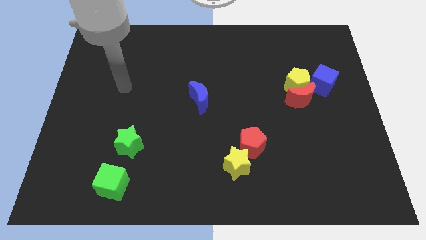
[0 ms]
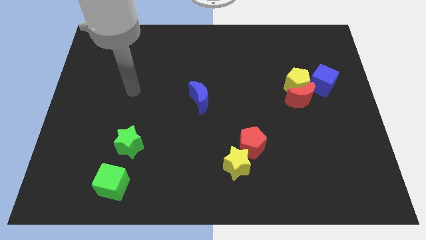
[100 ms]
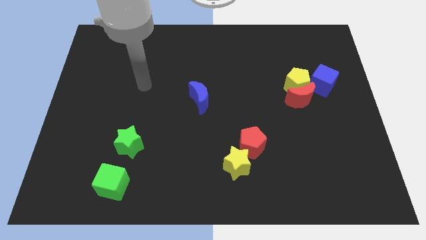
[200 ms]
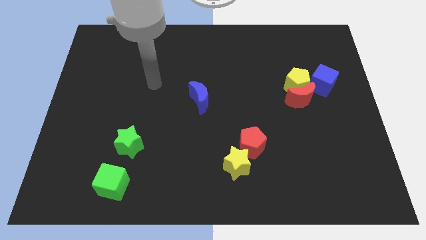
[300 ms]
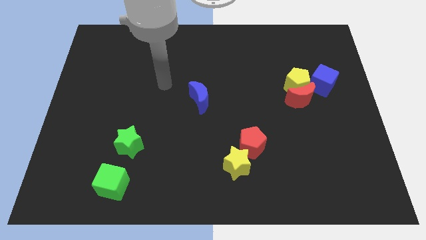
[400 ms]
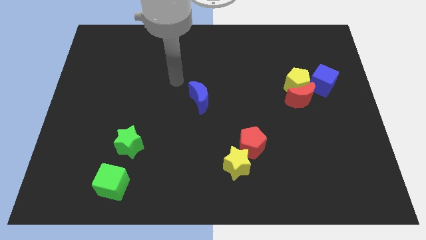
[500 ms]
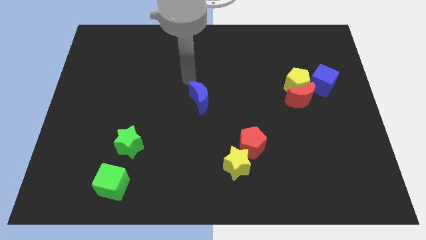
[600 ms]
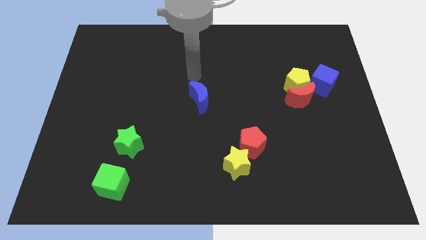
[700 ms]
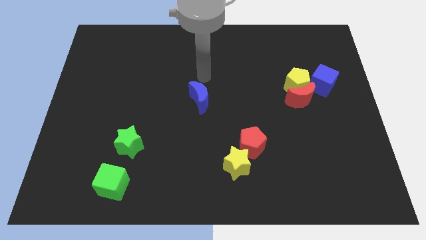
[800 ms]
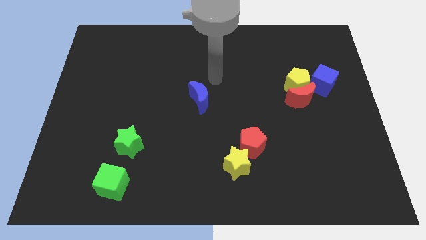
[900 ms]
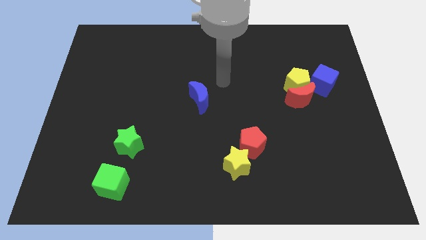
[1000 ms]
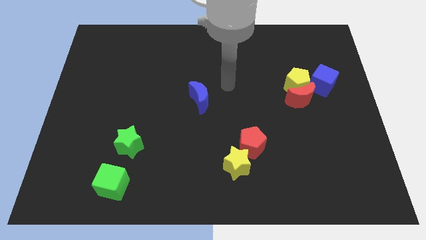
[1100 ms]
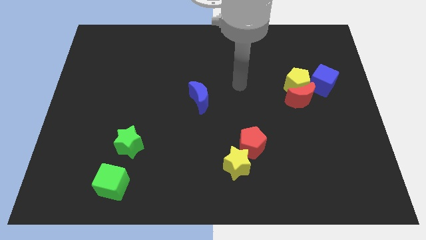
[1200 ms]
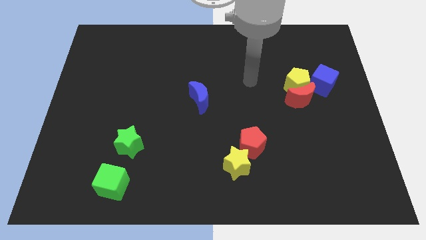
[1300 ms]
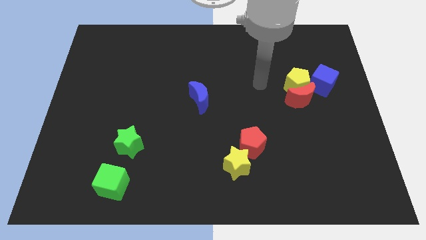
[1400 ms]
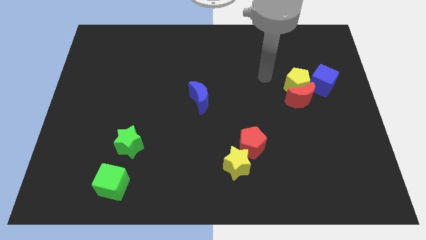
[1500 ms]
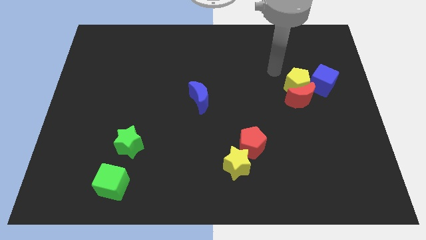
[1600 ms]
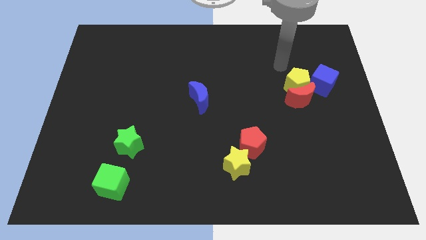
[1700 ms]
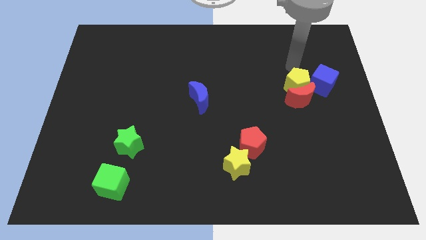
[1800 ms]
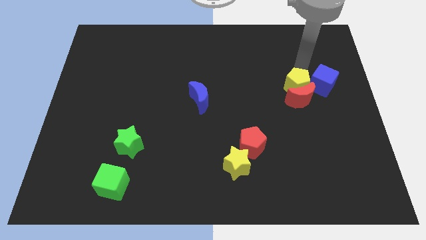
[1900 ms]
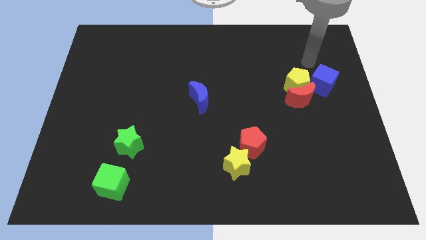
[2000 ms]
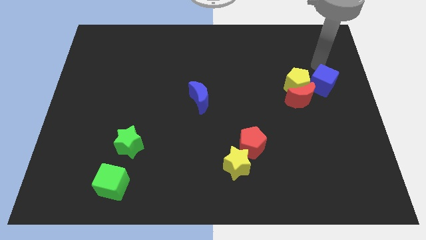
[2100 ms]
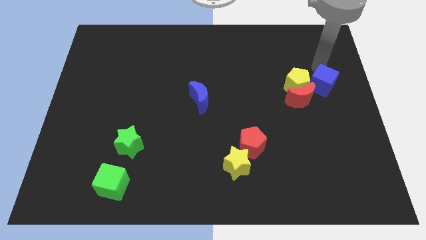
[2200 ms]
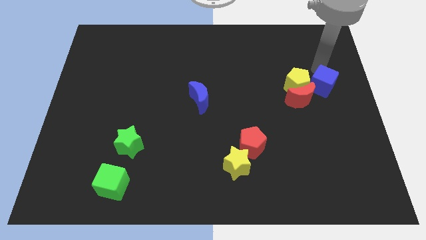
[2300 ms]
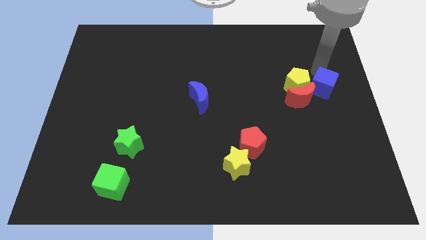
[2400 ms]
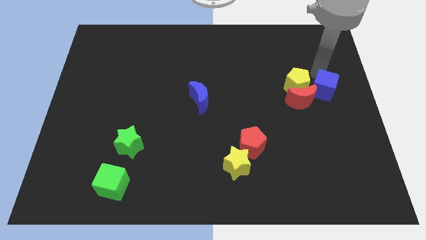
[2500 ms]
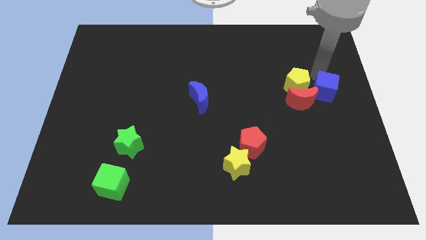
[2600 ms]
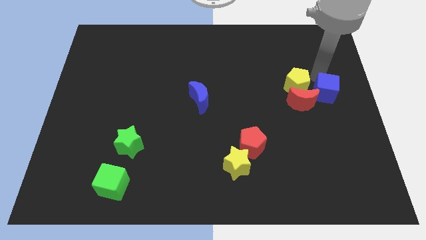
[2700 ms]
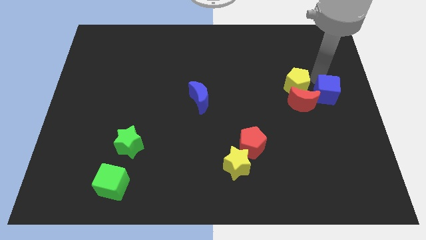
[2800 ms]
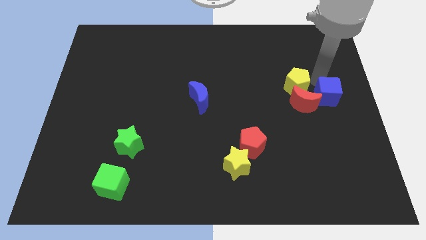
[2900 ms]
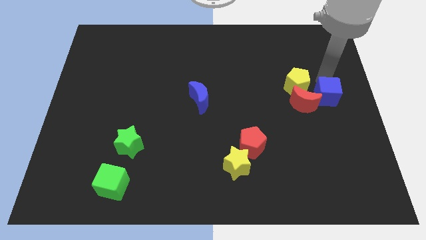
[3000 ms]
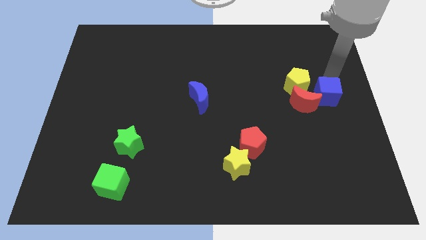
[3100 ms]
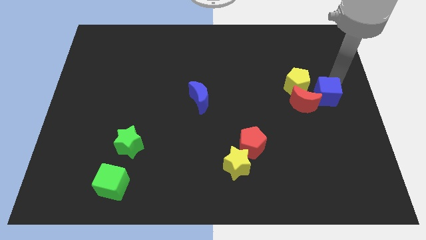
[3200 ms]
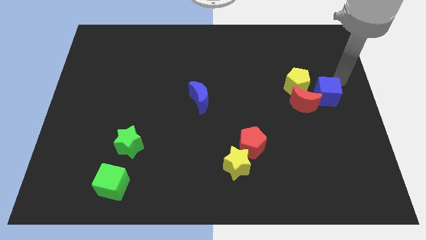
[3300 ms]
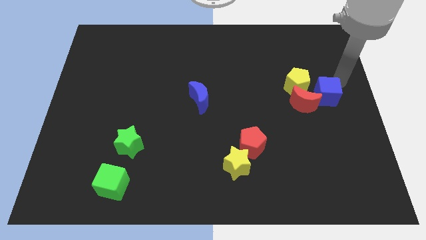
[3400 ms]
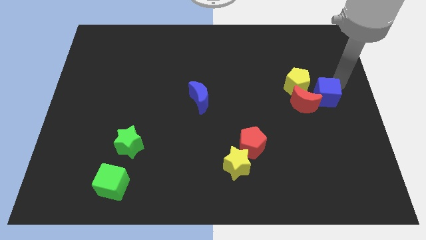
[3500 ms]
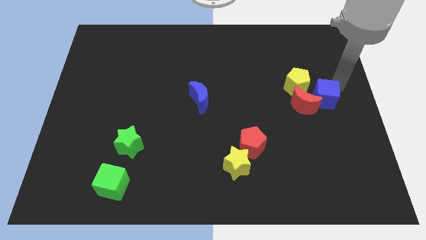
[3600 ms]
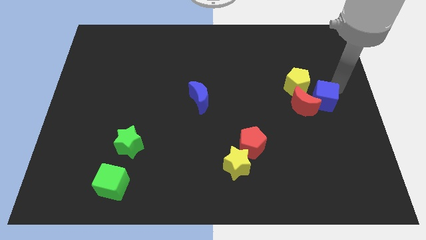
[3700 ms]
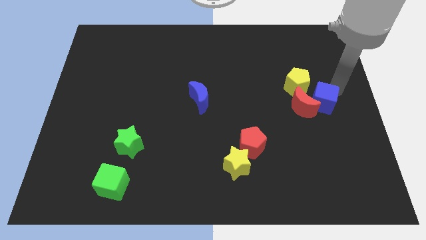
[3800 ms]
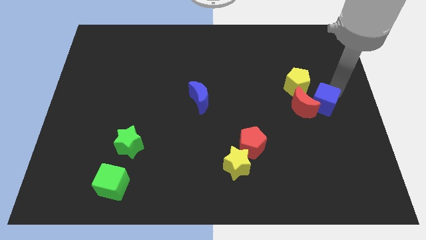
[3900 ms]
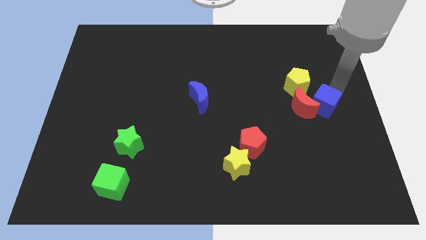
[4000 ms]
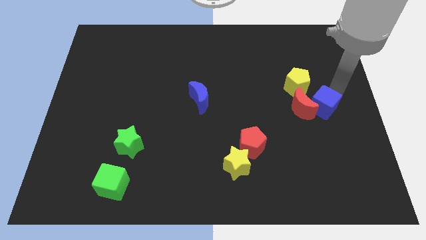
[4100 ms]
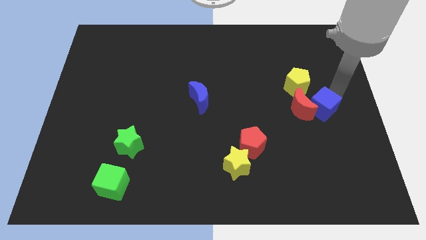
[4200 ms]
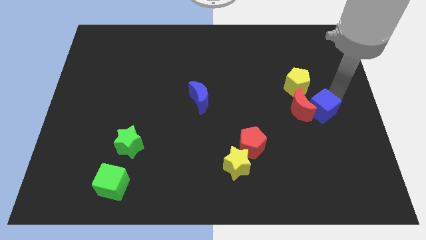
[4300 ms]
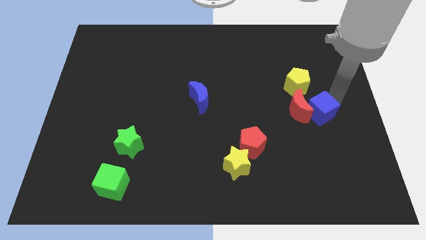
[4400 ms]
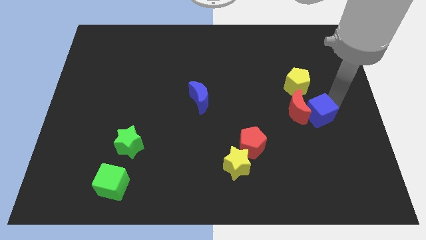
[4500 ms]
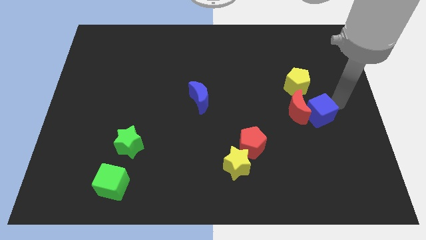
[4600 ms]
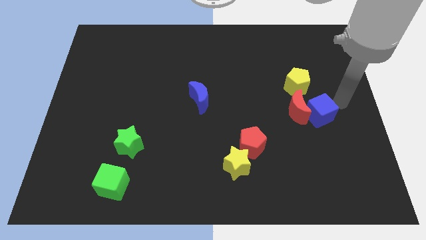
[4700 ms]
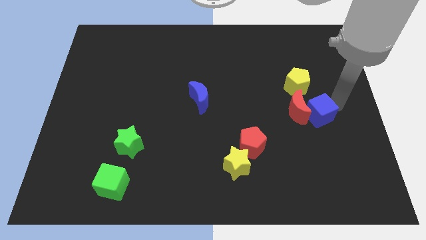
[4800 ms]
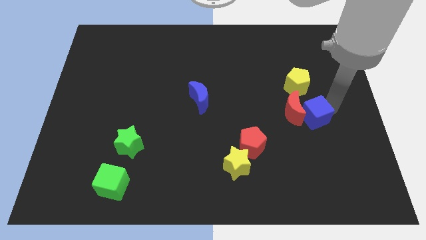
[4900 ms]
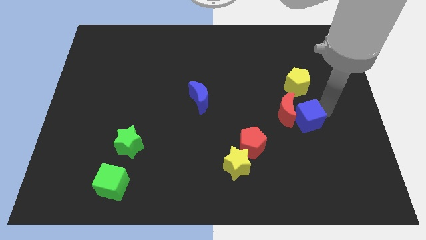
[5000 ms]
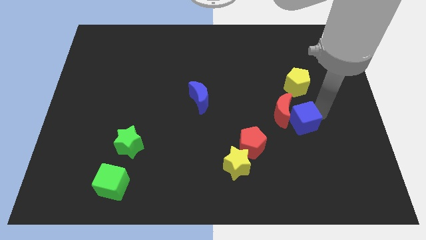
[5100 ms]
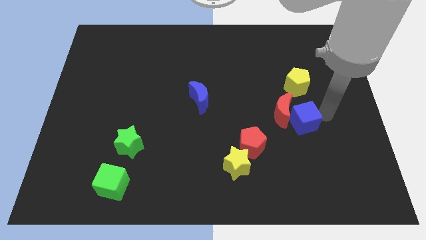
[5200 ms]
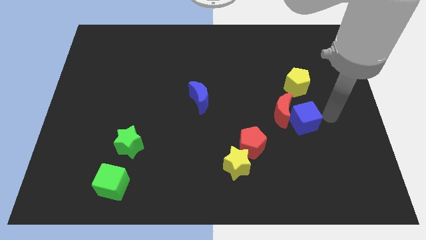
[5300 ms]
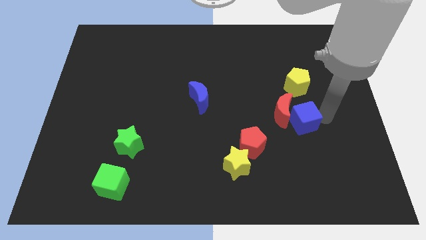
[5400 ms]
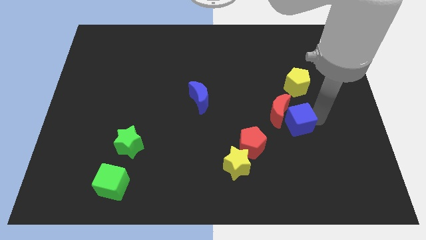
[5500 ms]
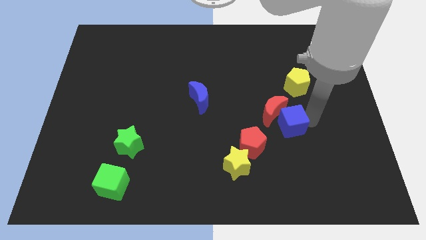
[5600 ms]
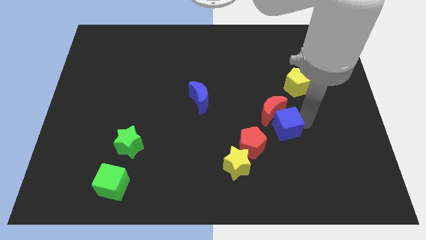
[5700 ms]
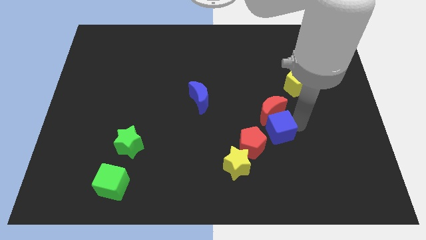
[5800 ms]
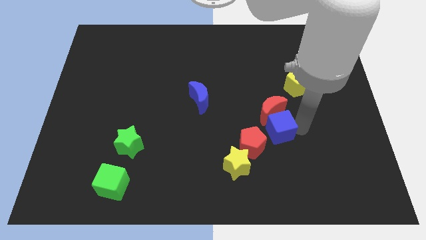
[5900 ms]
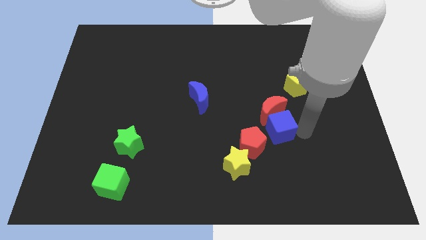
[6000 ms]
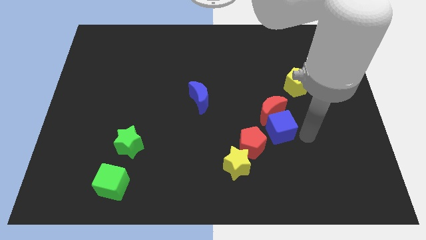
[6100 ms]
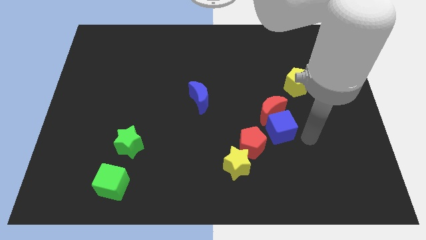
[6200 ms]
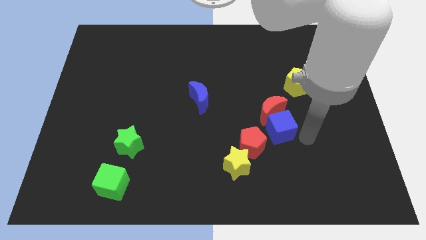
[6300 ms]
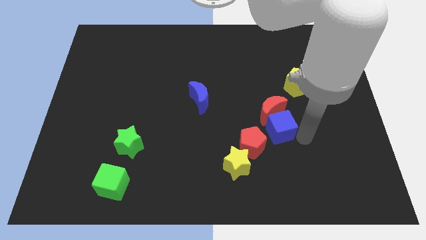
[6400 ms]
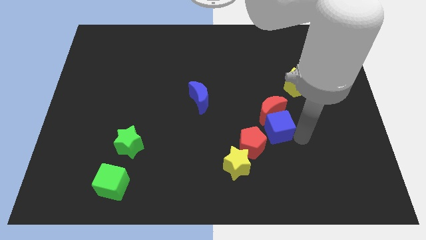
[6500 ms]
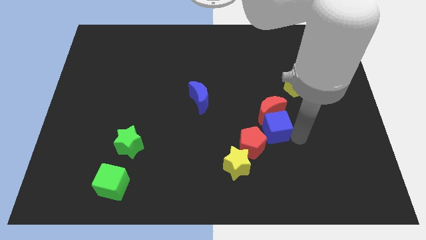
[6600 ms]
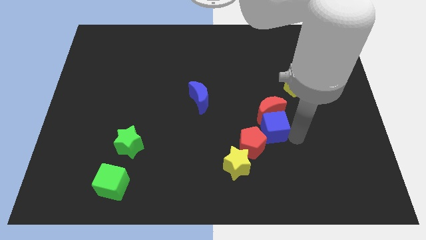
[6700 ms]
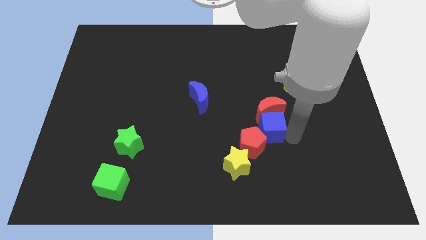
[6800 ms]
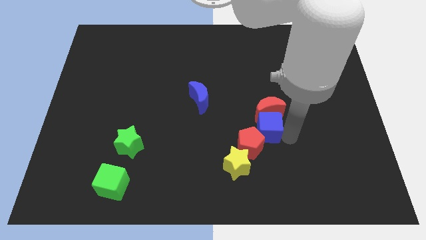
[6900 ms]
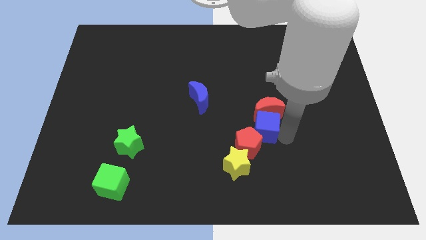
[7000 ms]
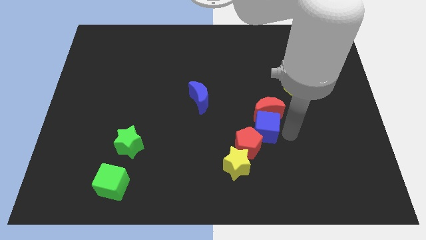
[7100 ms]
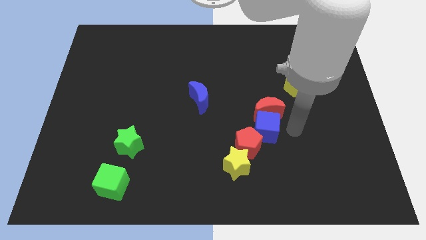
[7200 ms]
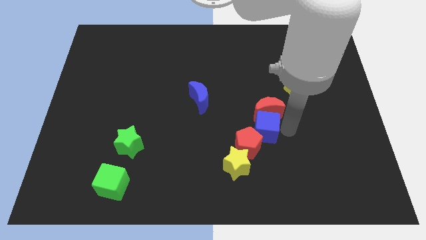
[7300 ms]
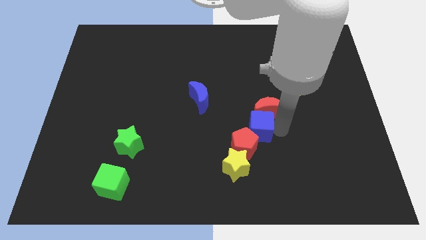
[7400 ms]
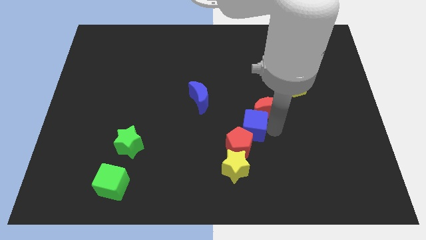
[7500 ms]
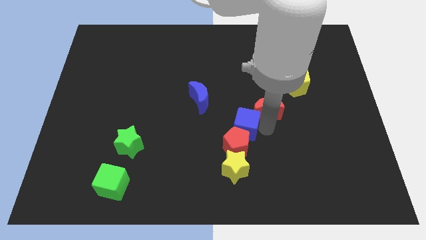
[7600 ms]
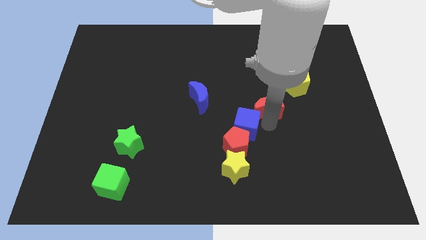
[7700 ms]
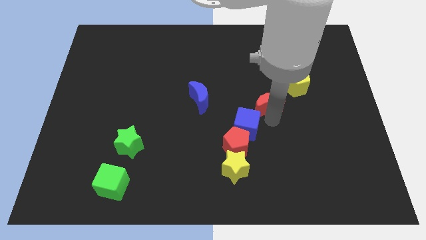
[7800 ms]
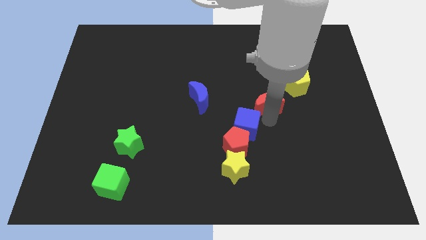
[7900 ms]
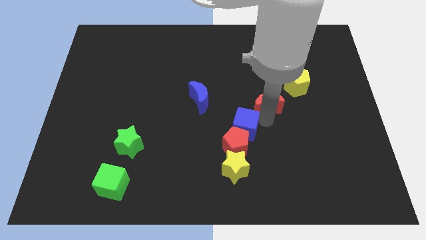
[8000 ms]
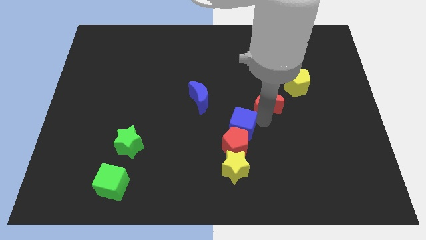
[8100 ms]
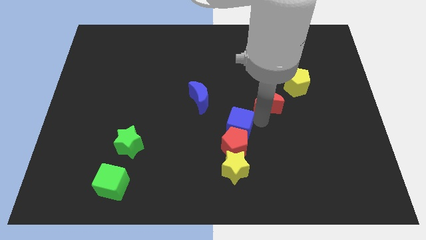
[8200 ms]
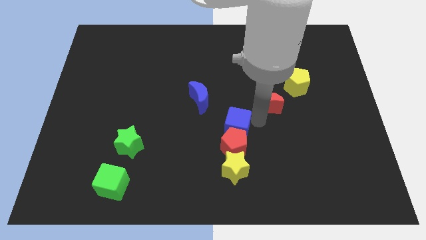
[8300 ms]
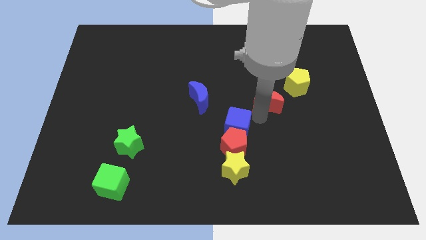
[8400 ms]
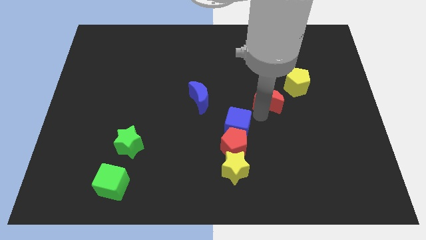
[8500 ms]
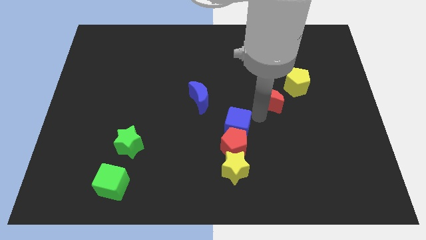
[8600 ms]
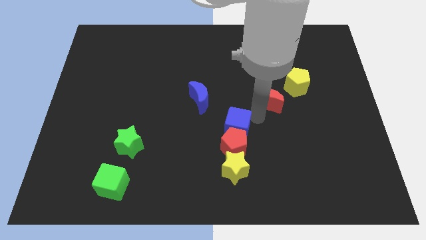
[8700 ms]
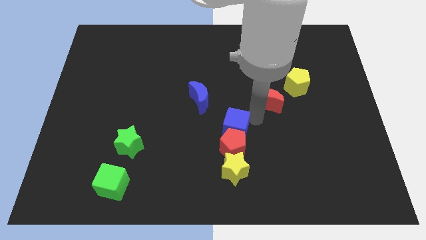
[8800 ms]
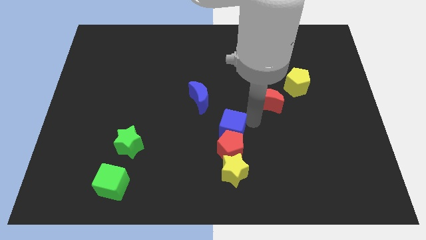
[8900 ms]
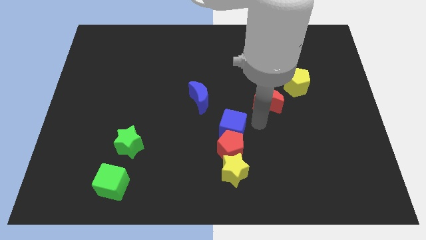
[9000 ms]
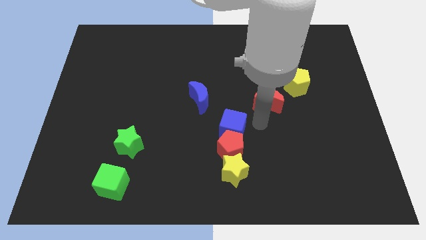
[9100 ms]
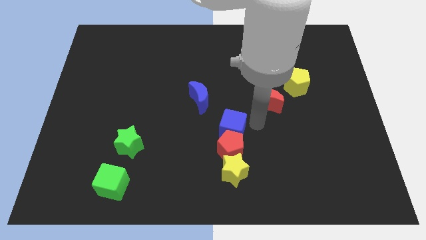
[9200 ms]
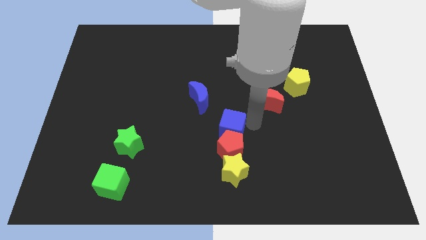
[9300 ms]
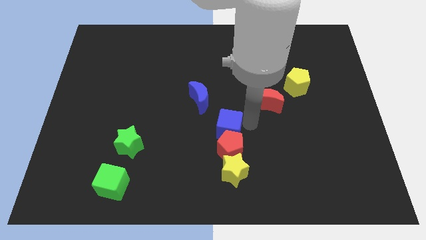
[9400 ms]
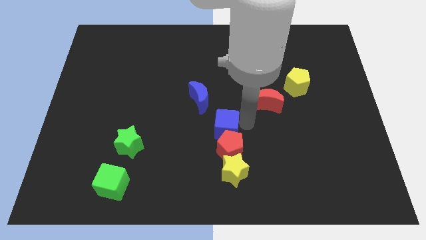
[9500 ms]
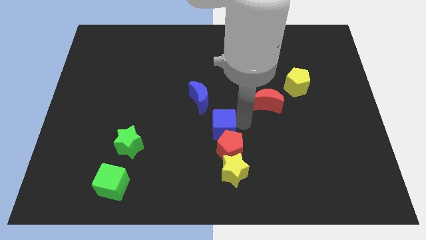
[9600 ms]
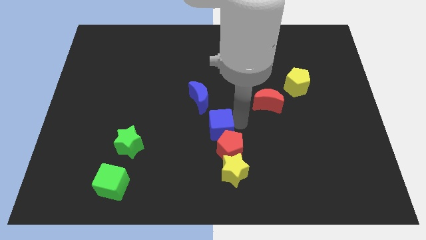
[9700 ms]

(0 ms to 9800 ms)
slide the blue cube to the bottom side of the blue moon
